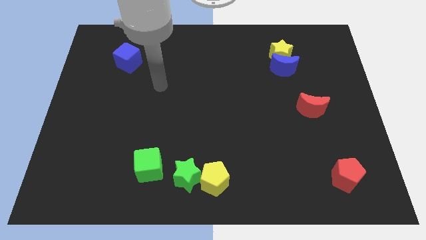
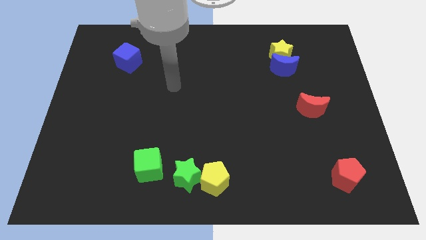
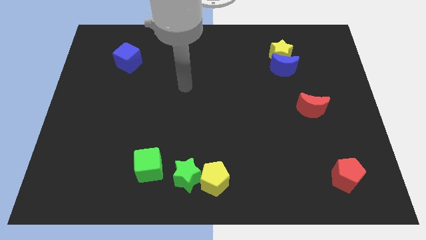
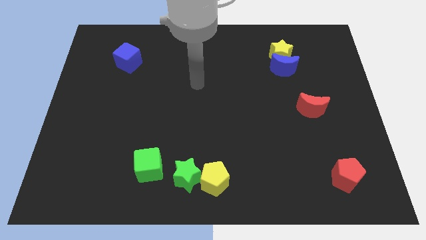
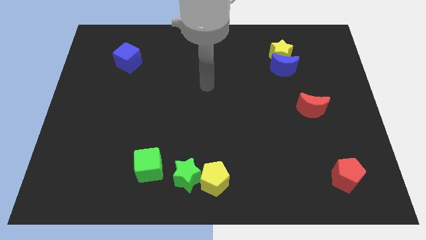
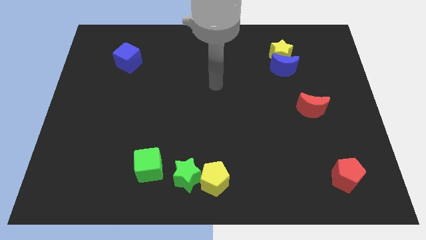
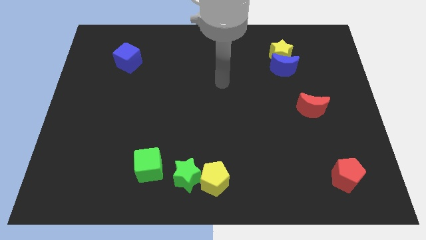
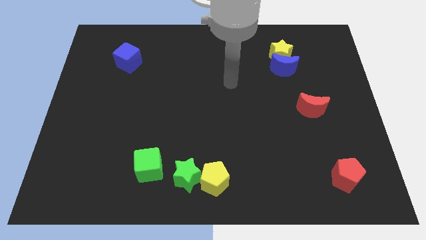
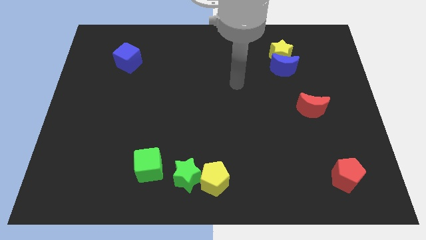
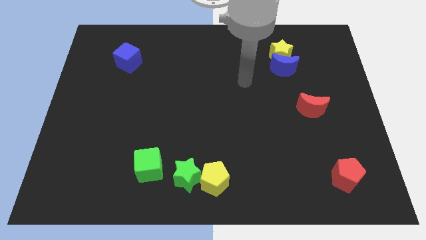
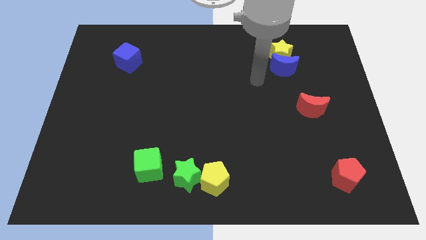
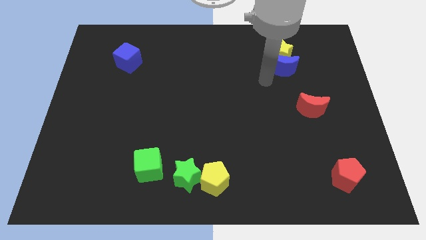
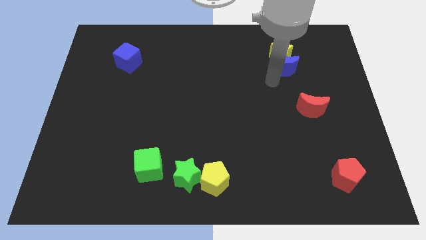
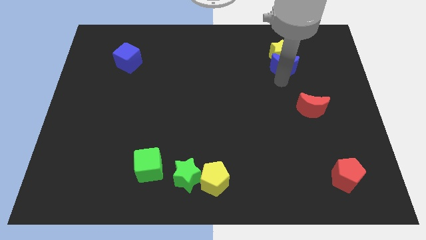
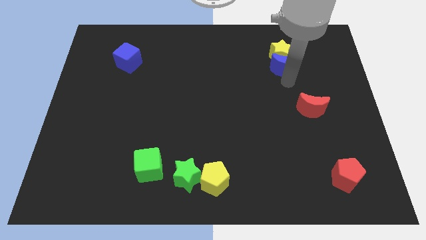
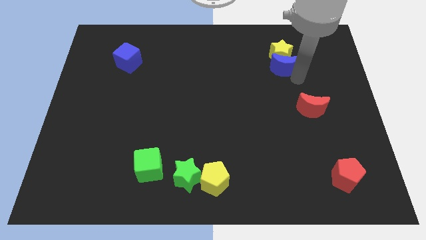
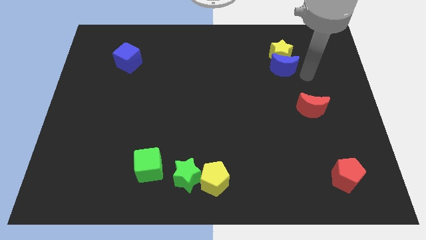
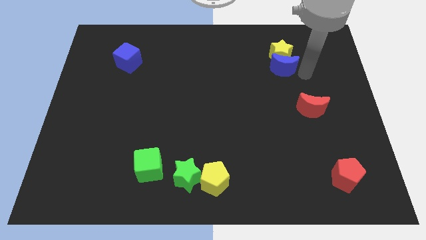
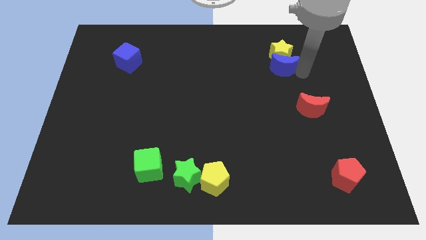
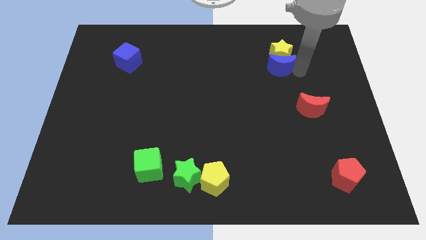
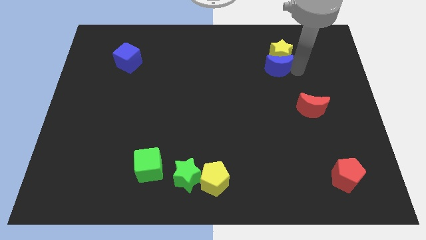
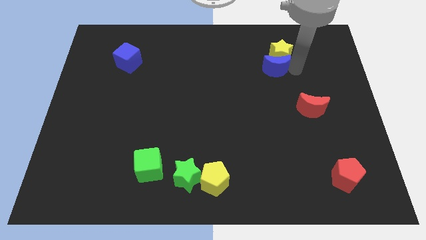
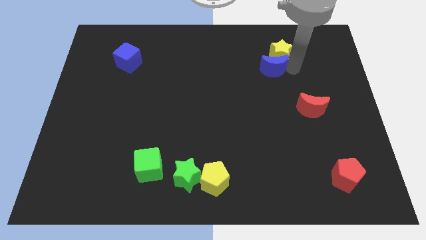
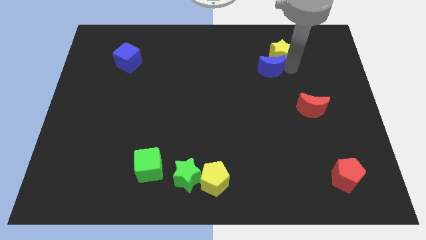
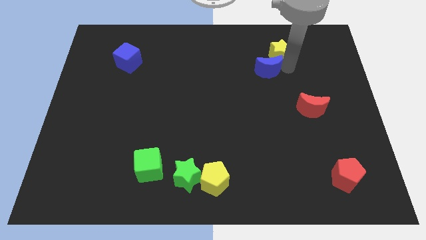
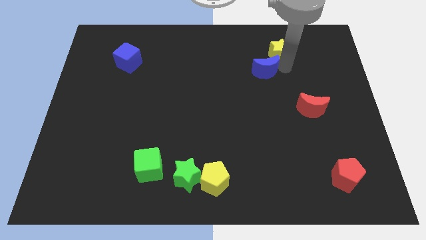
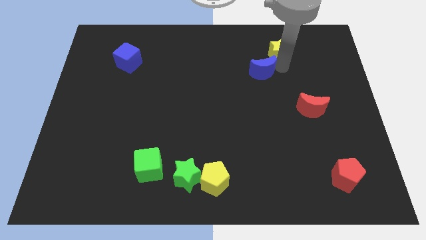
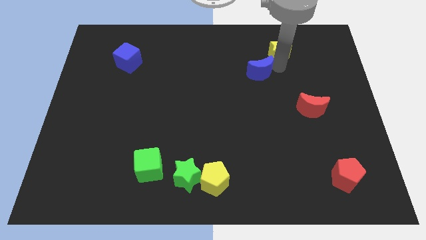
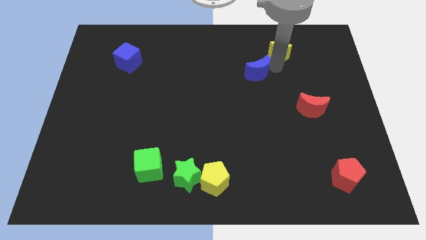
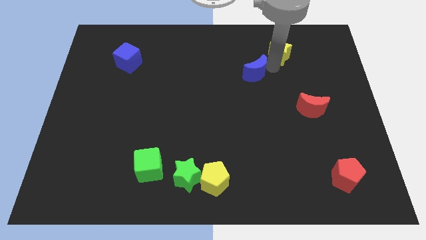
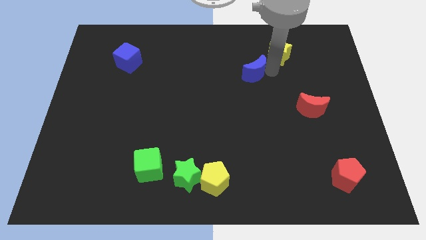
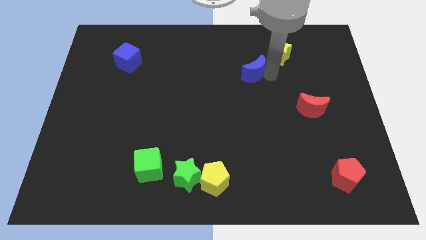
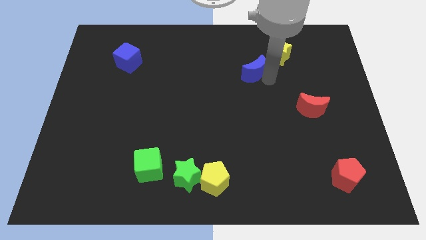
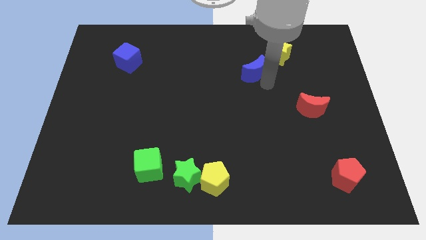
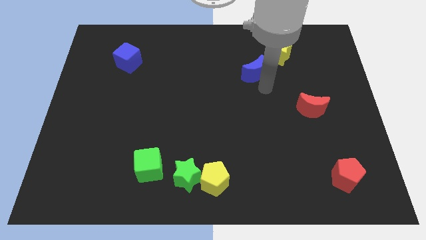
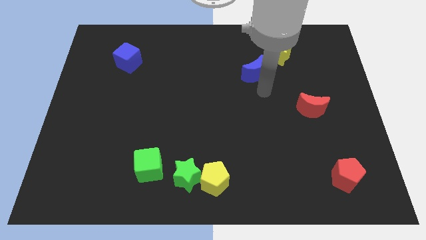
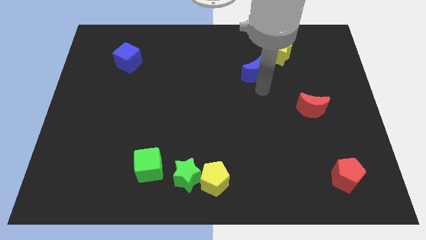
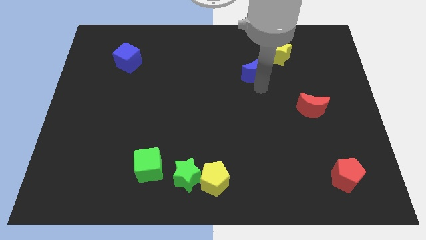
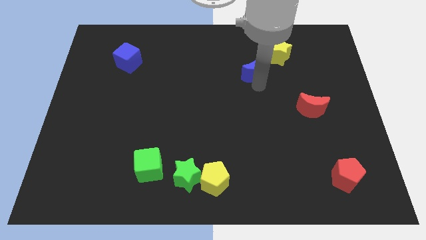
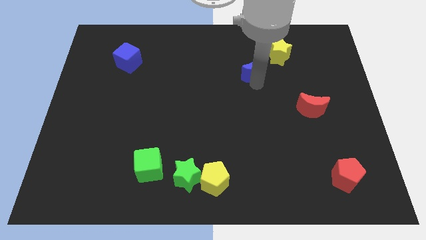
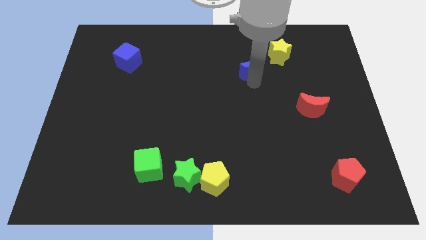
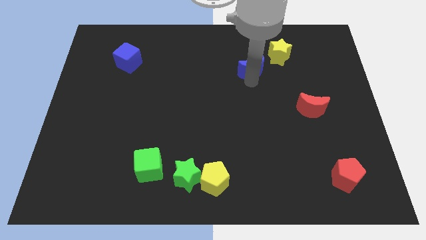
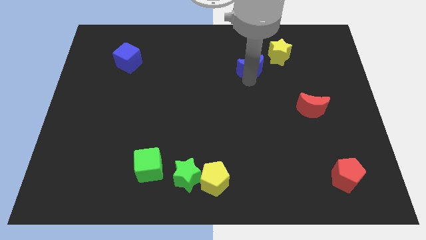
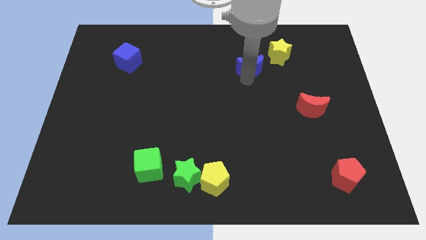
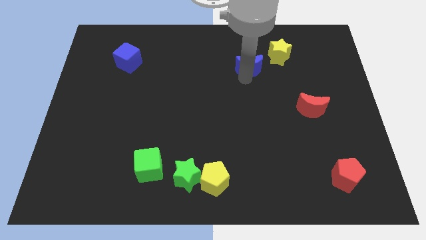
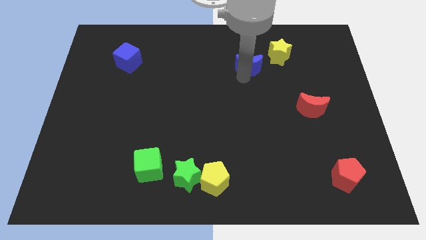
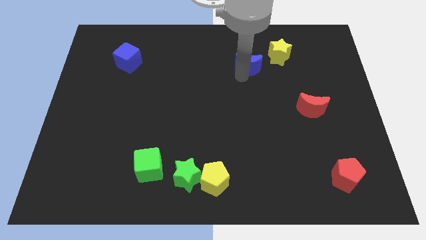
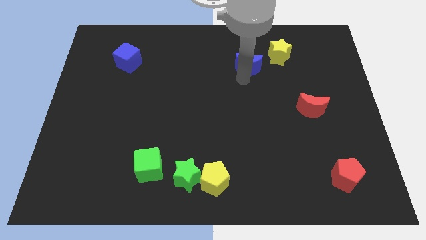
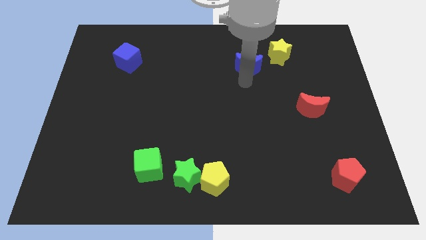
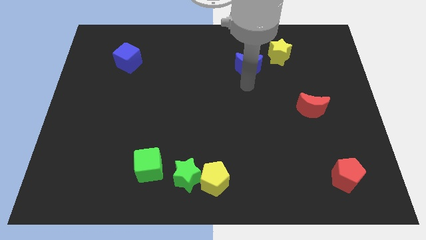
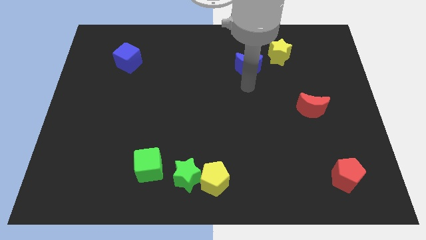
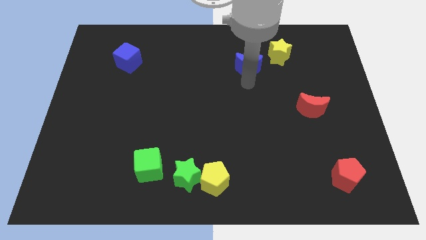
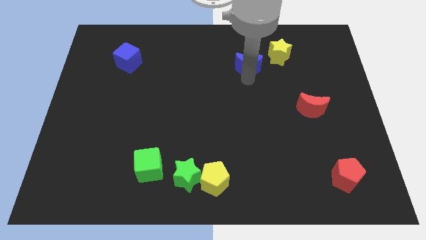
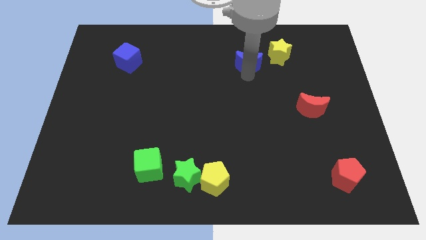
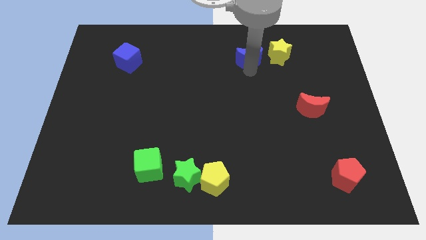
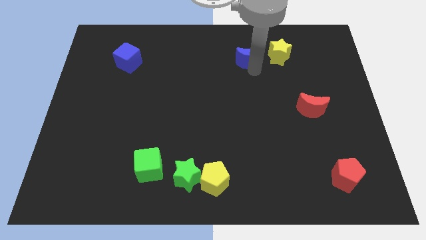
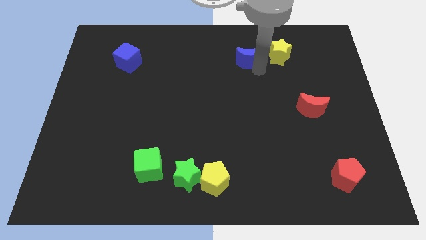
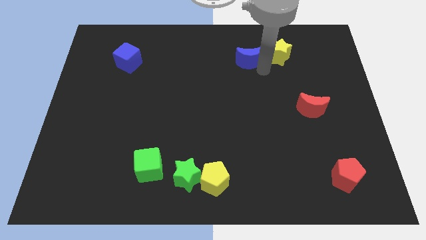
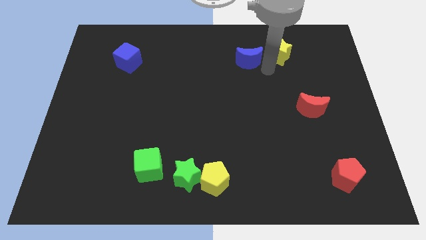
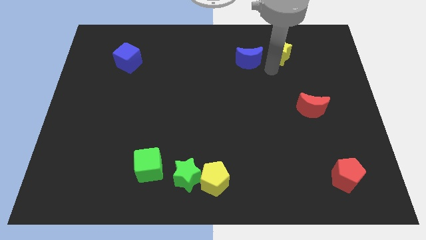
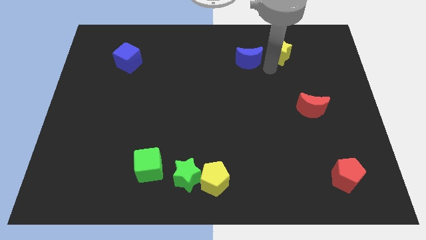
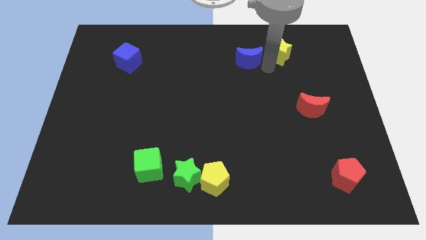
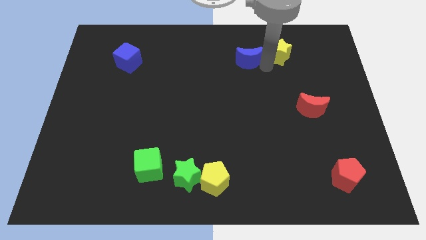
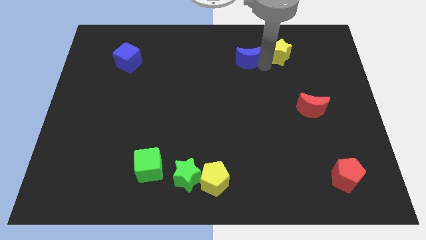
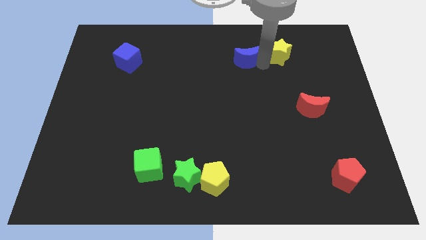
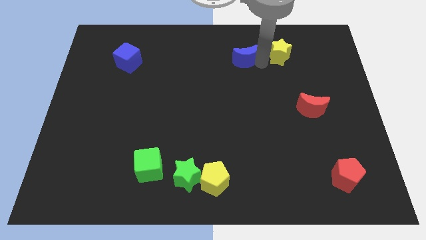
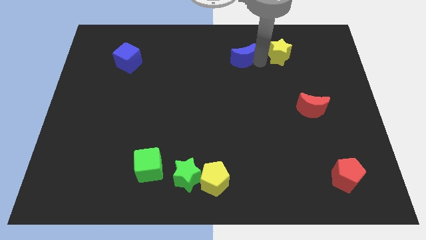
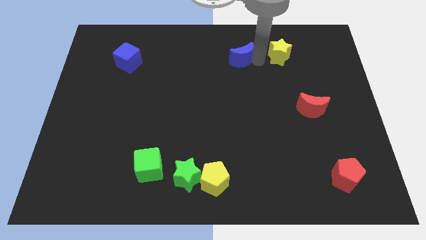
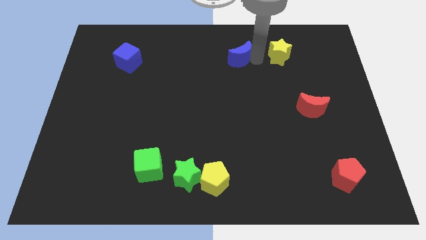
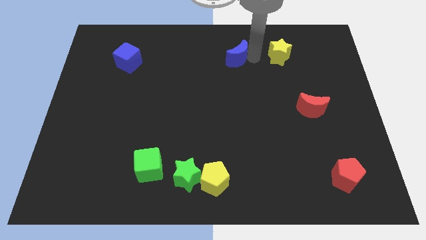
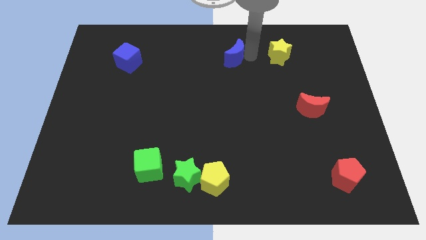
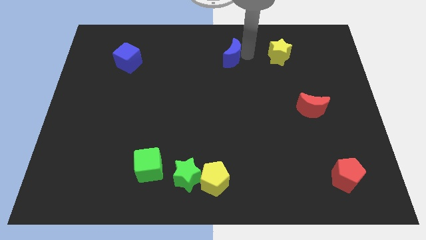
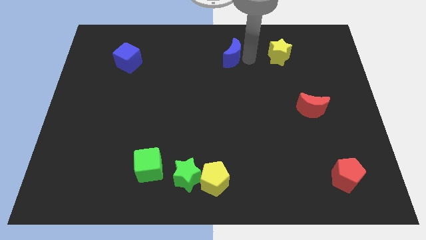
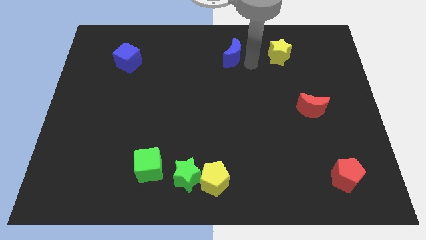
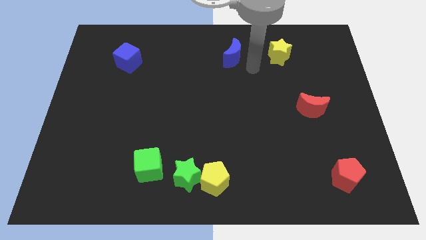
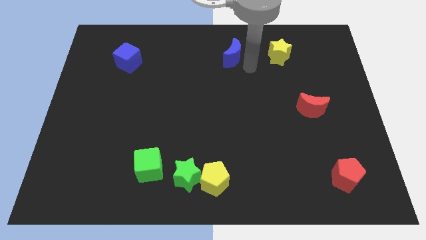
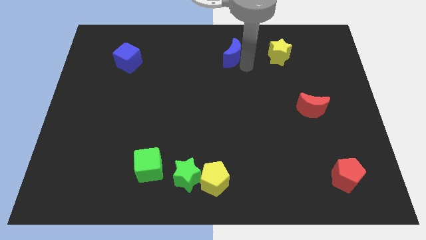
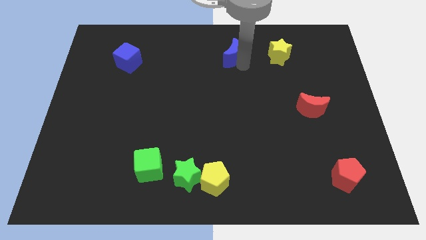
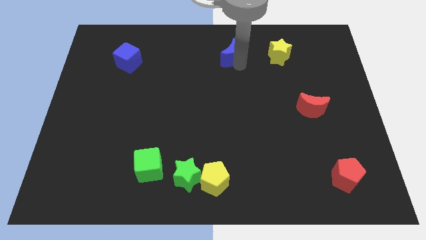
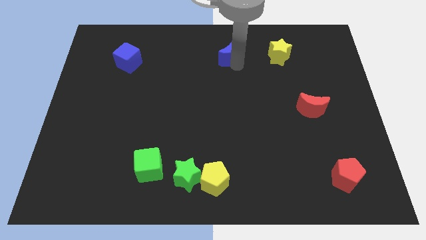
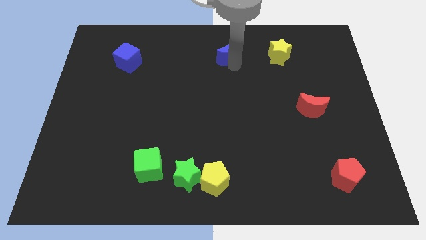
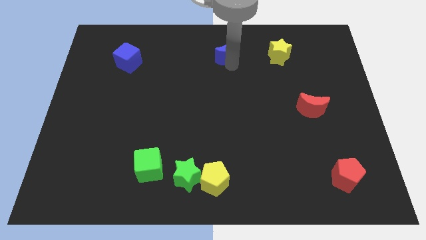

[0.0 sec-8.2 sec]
put the blue moon to the top side
